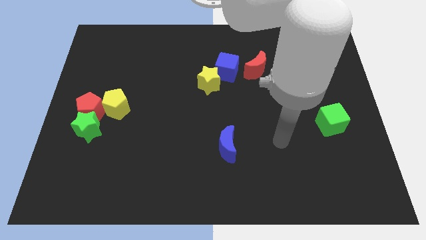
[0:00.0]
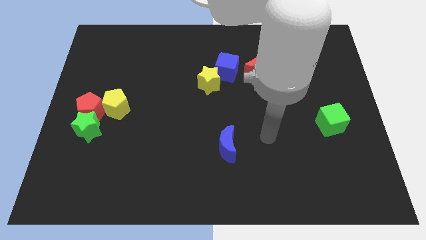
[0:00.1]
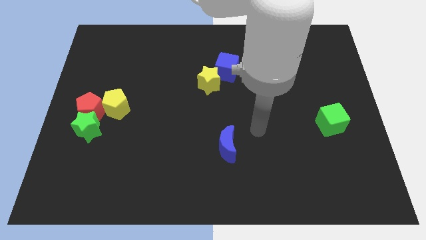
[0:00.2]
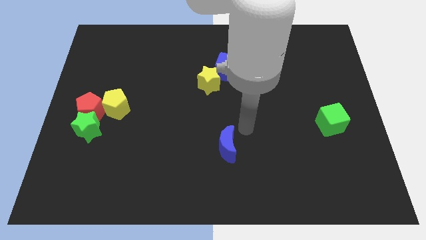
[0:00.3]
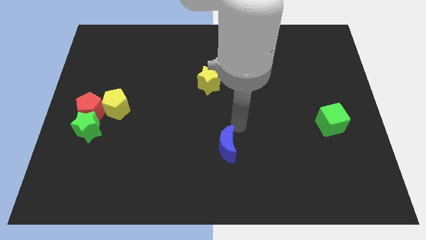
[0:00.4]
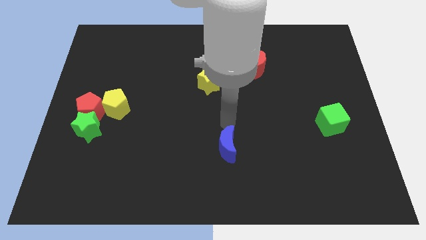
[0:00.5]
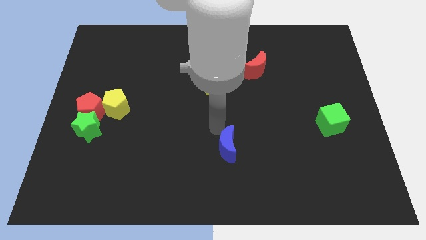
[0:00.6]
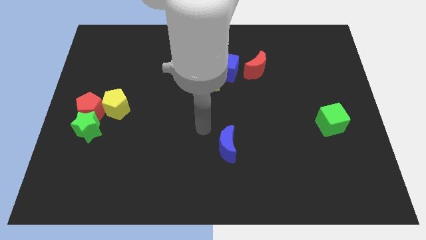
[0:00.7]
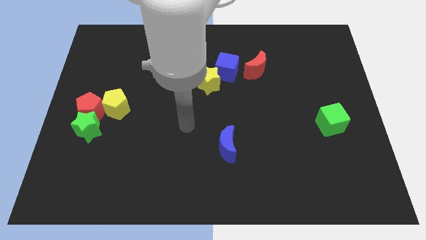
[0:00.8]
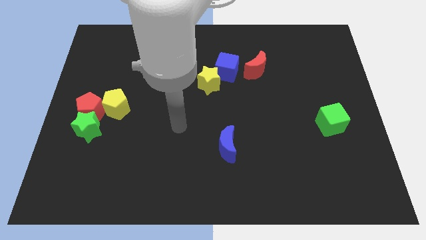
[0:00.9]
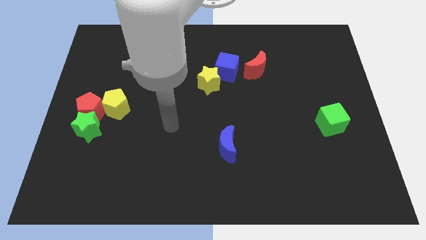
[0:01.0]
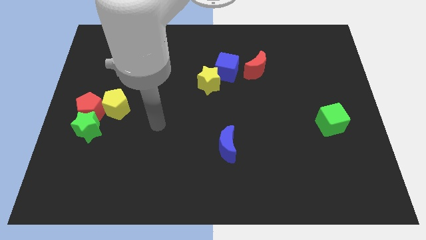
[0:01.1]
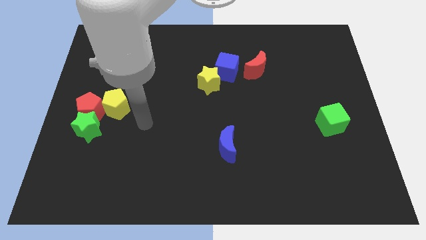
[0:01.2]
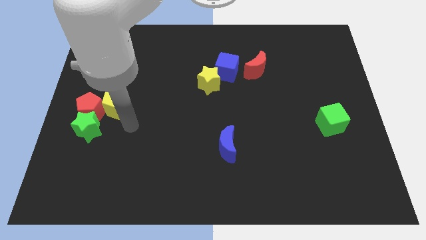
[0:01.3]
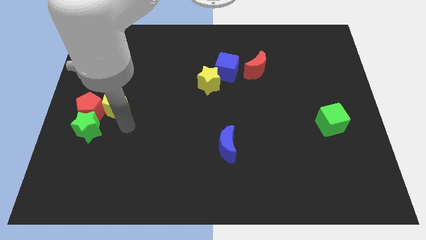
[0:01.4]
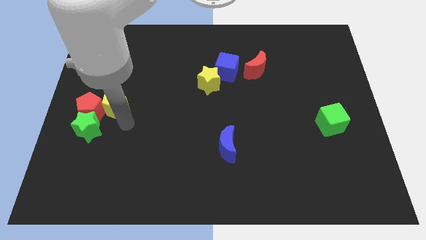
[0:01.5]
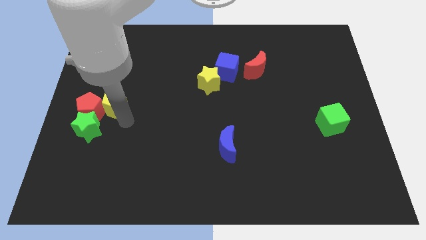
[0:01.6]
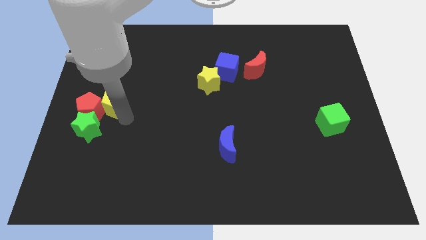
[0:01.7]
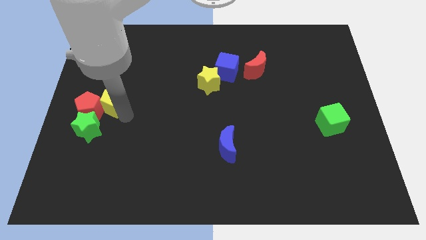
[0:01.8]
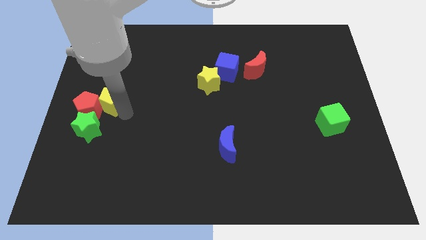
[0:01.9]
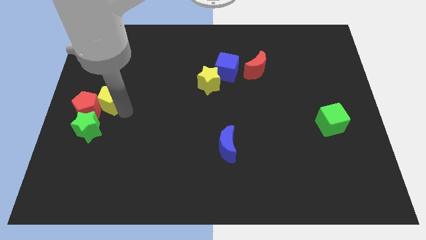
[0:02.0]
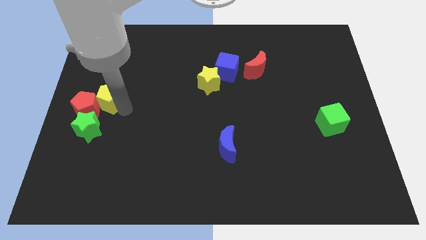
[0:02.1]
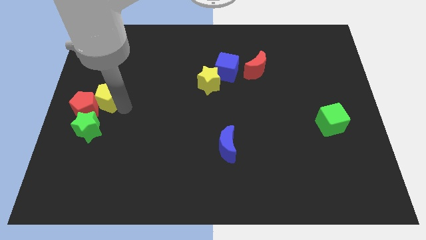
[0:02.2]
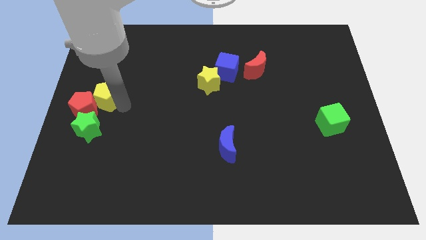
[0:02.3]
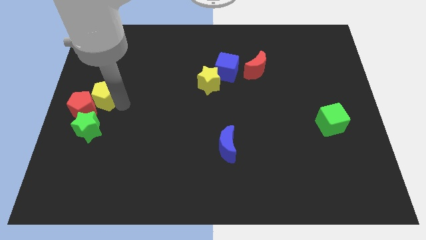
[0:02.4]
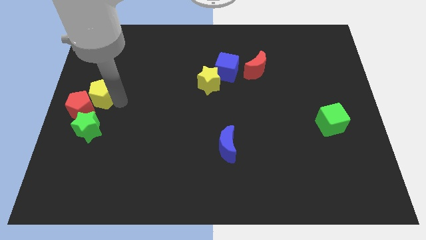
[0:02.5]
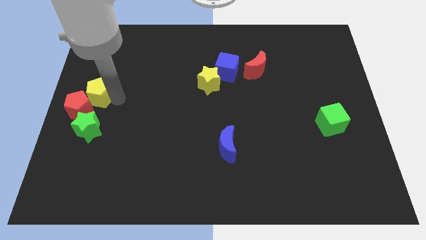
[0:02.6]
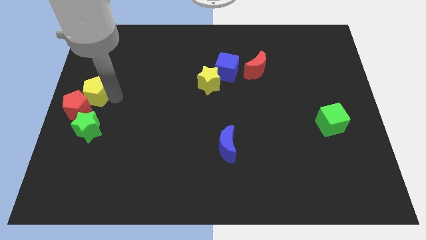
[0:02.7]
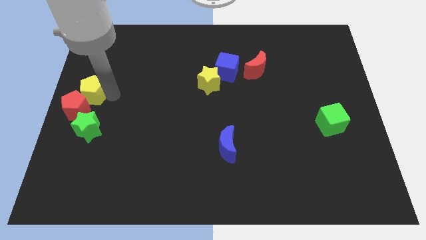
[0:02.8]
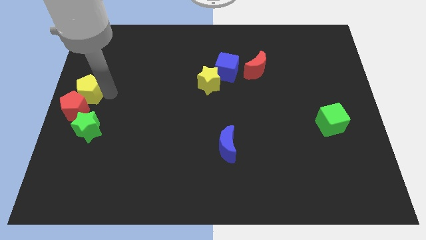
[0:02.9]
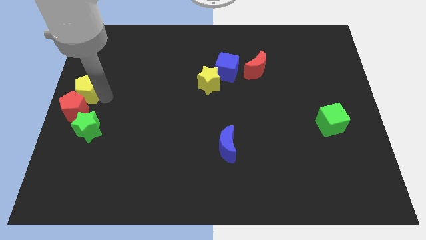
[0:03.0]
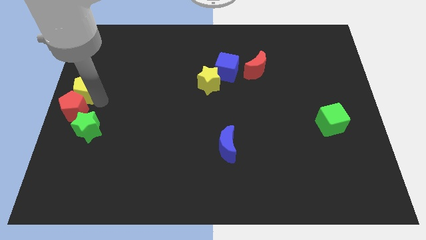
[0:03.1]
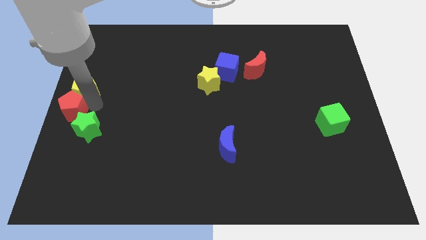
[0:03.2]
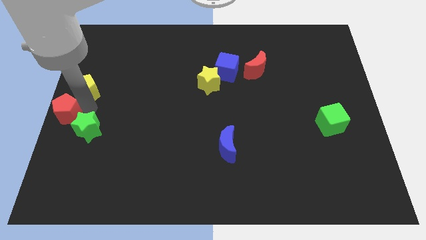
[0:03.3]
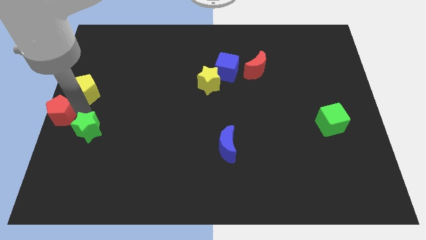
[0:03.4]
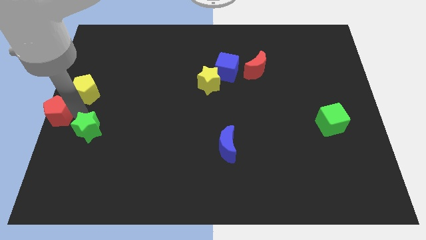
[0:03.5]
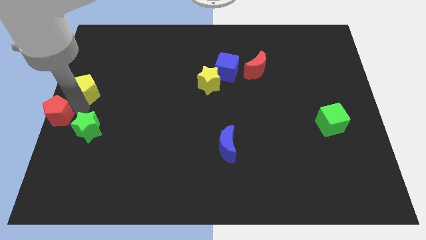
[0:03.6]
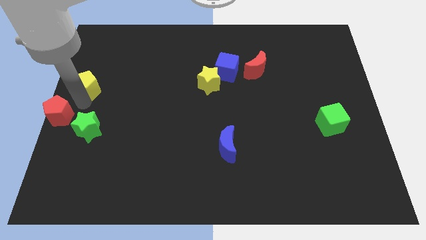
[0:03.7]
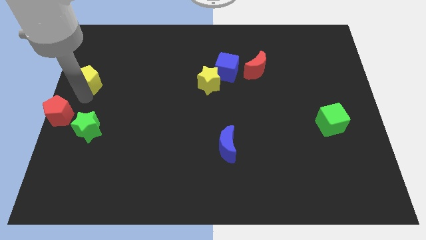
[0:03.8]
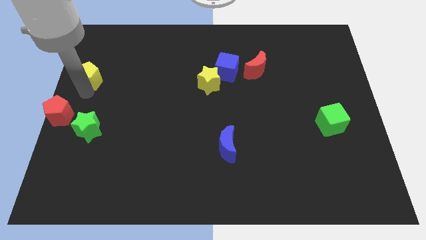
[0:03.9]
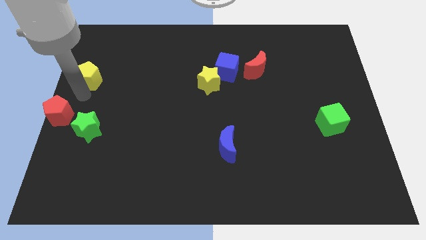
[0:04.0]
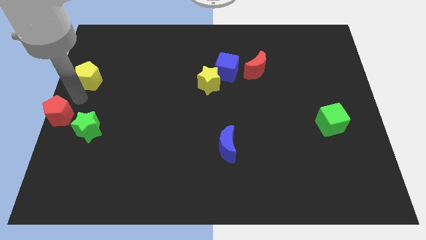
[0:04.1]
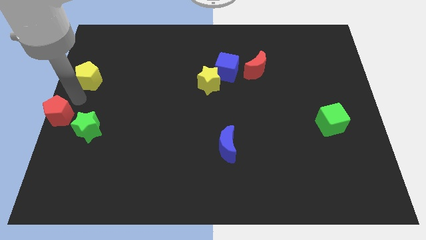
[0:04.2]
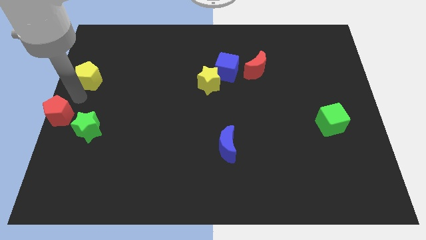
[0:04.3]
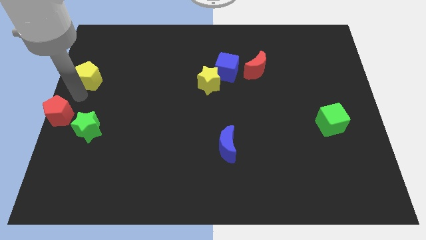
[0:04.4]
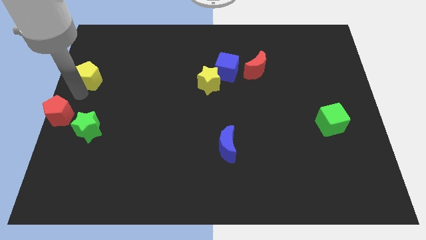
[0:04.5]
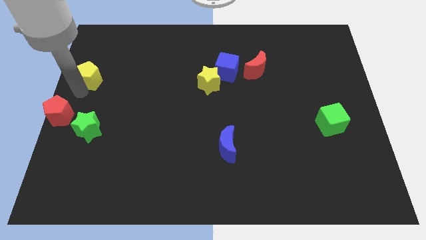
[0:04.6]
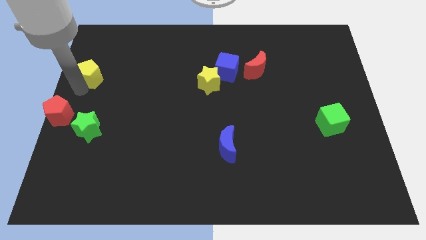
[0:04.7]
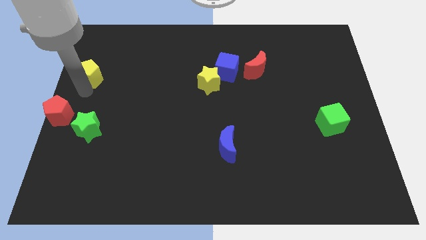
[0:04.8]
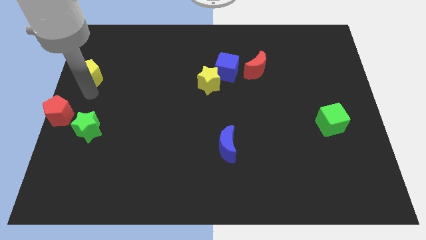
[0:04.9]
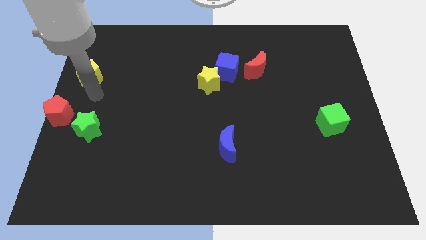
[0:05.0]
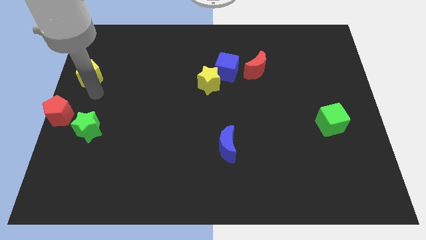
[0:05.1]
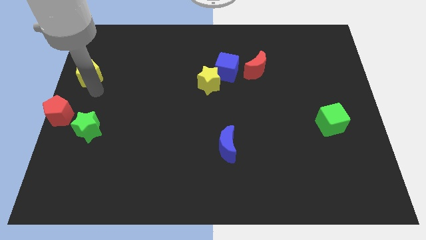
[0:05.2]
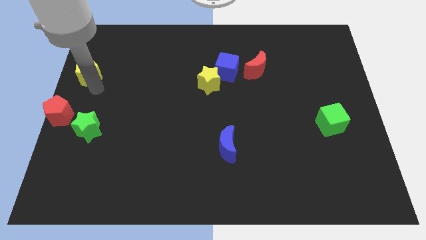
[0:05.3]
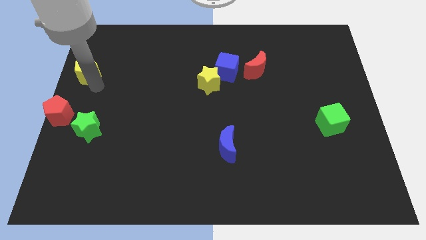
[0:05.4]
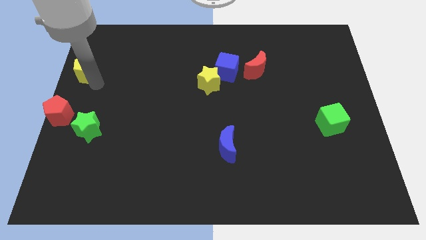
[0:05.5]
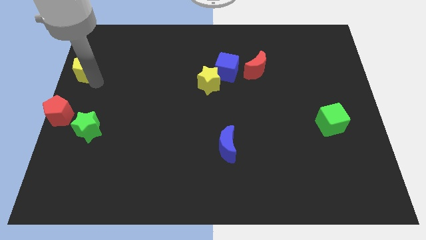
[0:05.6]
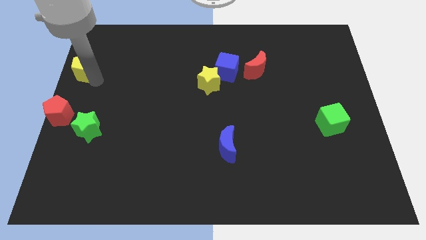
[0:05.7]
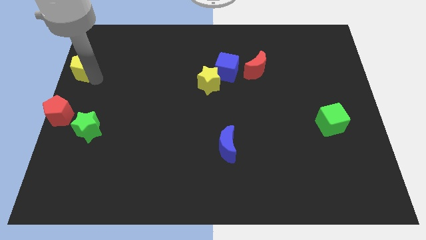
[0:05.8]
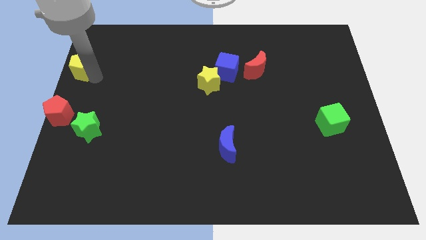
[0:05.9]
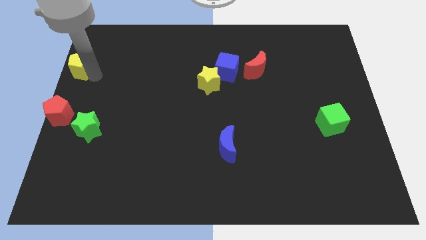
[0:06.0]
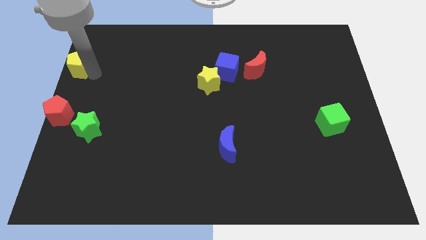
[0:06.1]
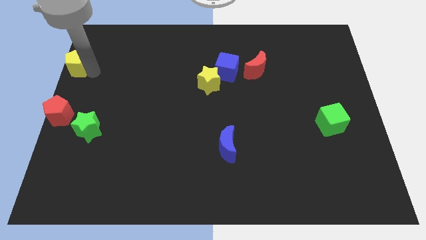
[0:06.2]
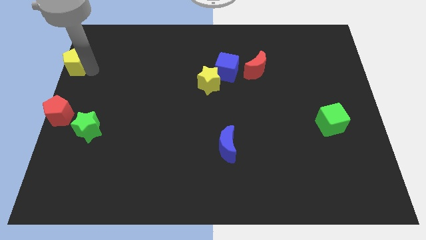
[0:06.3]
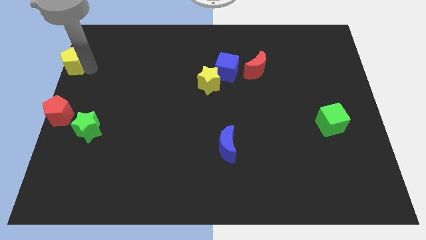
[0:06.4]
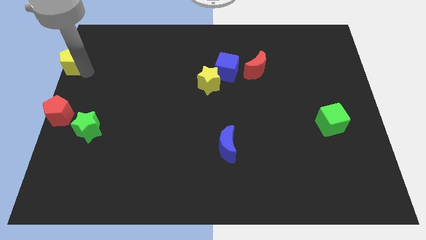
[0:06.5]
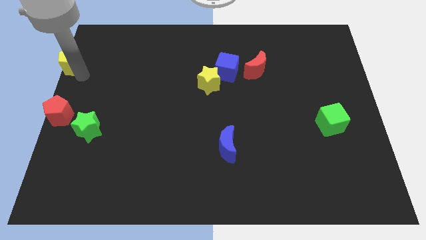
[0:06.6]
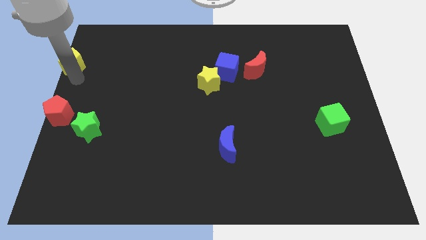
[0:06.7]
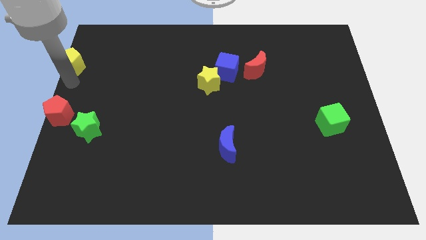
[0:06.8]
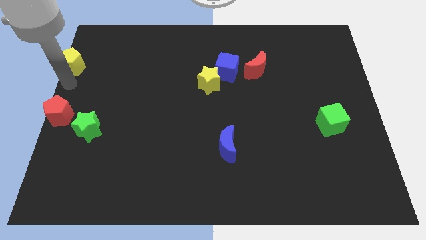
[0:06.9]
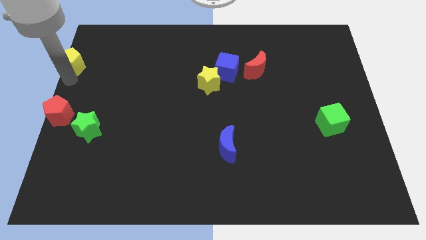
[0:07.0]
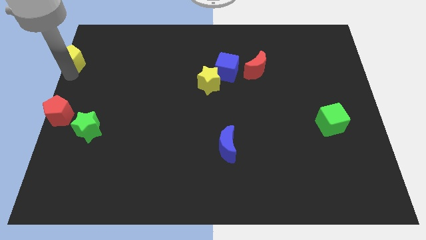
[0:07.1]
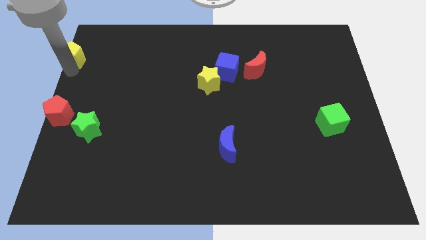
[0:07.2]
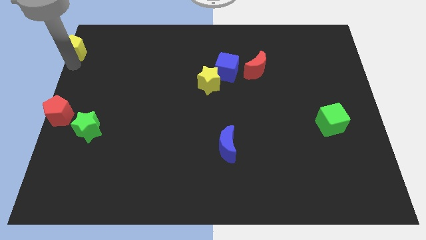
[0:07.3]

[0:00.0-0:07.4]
push the yellow pentagon to the top left of the board

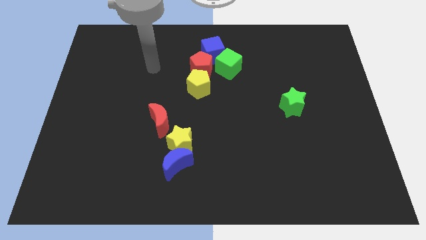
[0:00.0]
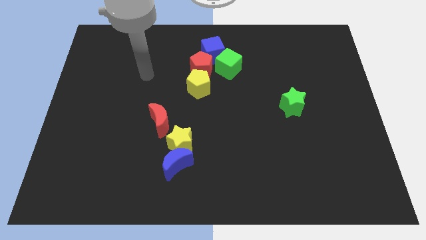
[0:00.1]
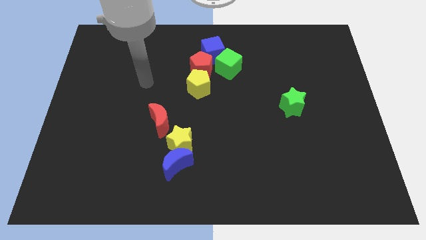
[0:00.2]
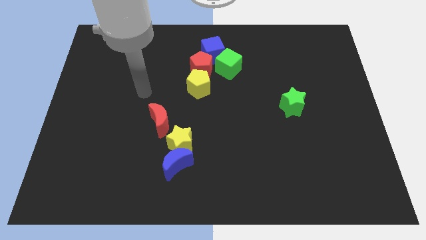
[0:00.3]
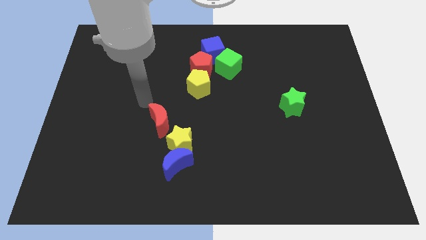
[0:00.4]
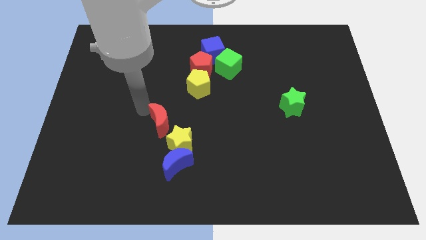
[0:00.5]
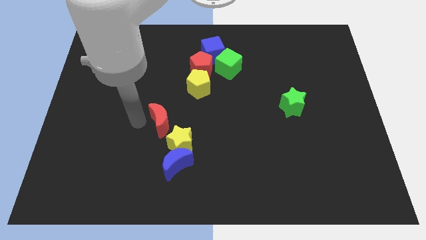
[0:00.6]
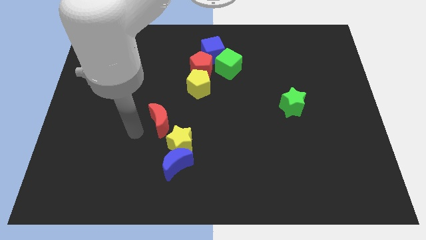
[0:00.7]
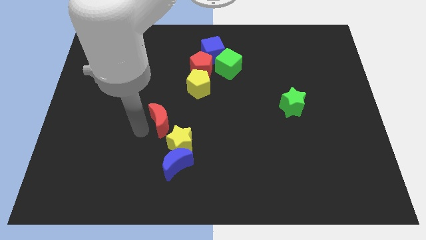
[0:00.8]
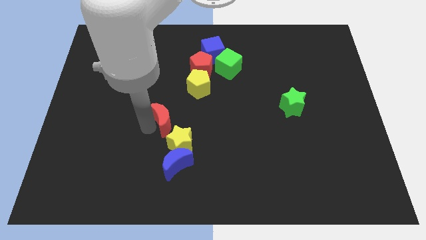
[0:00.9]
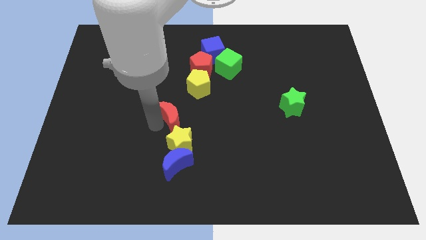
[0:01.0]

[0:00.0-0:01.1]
slide the red moon to the middle of the board
